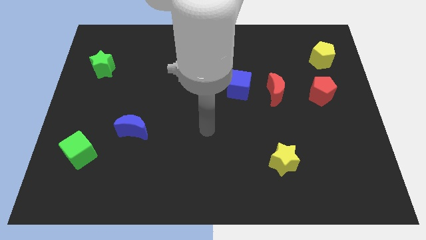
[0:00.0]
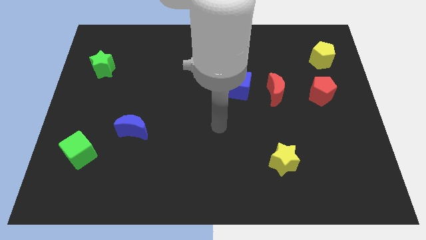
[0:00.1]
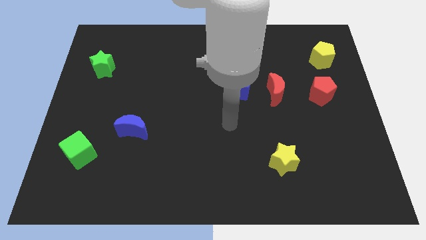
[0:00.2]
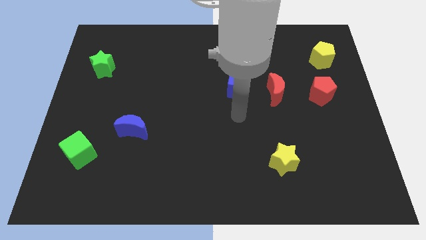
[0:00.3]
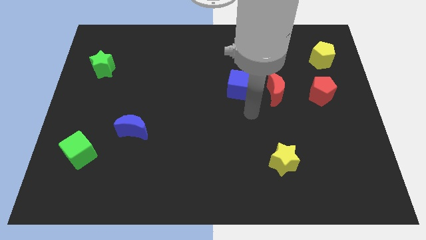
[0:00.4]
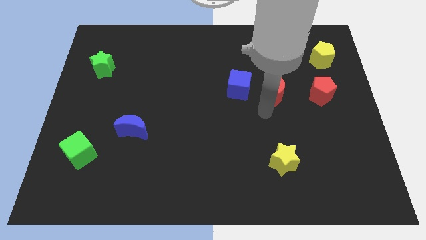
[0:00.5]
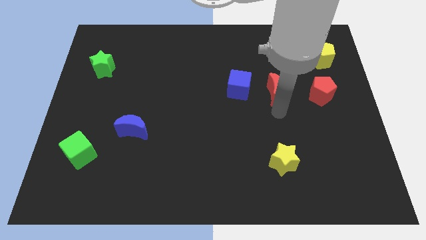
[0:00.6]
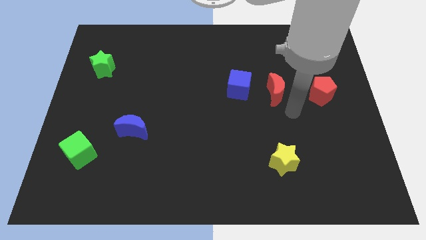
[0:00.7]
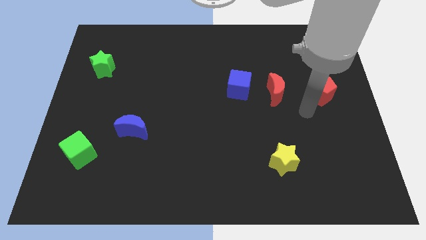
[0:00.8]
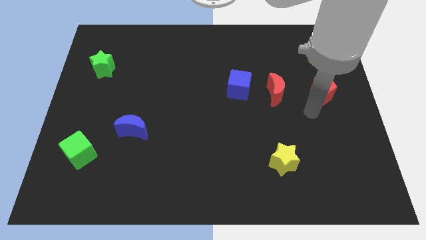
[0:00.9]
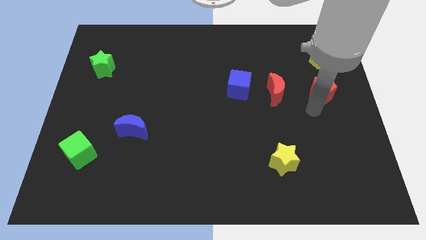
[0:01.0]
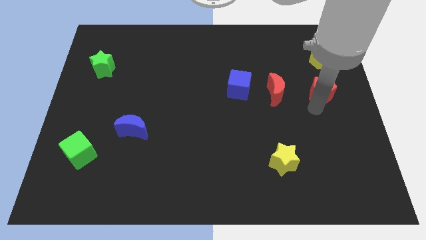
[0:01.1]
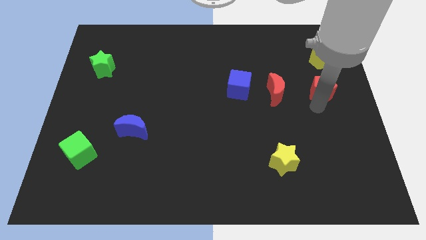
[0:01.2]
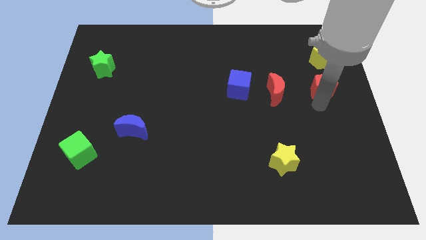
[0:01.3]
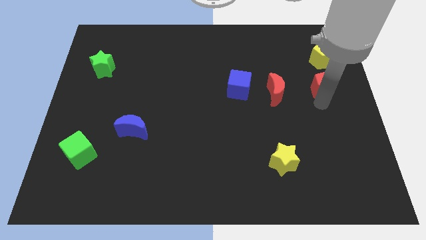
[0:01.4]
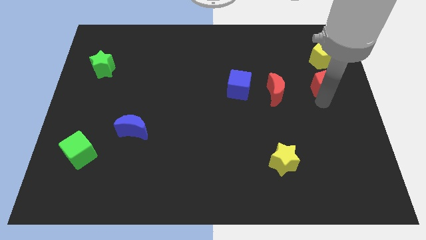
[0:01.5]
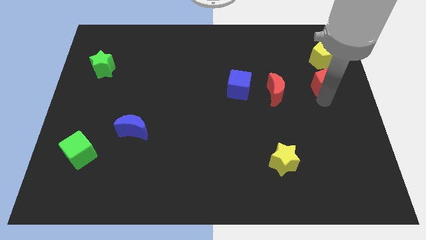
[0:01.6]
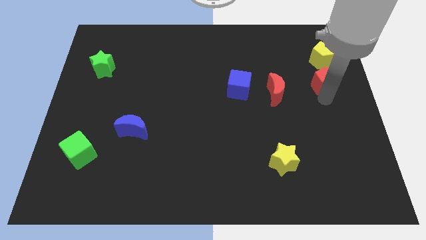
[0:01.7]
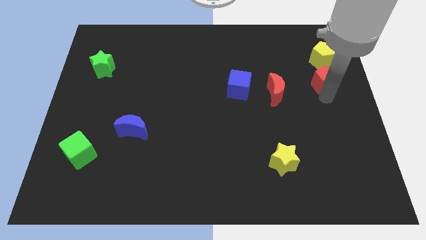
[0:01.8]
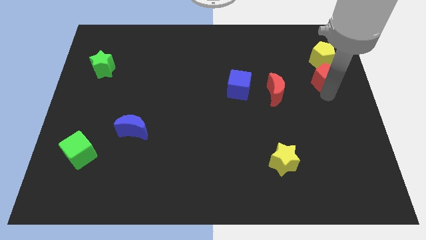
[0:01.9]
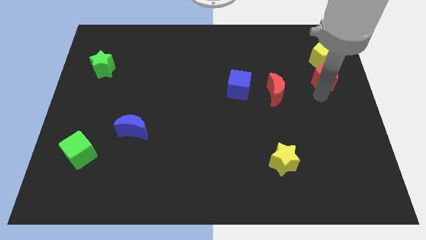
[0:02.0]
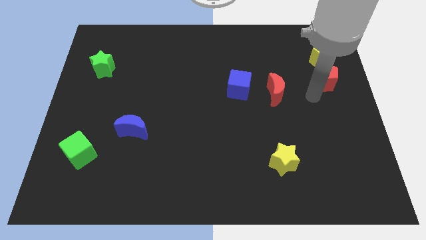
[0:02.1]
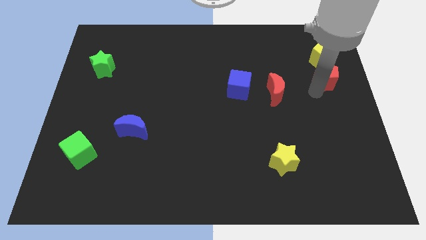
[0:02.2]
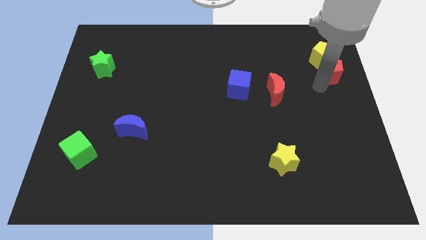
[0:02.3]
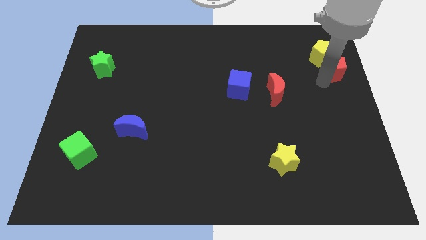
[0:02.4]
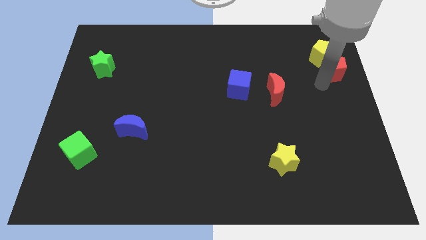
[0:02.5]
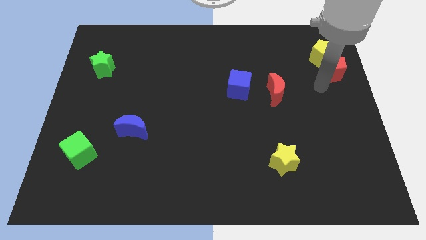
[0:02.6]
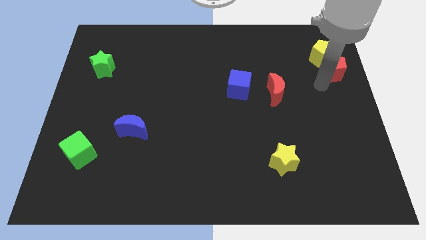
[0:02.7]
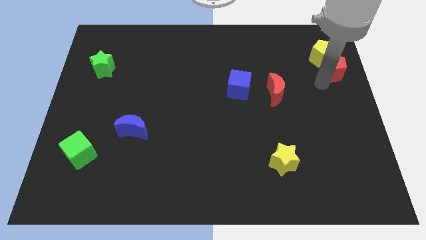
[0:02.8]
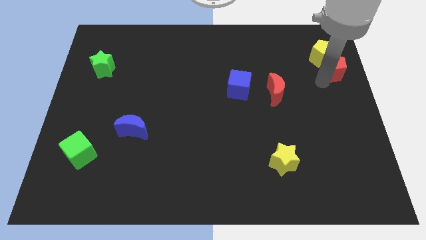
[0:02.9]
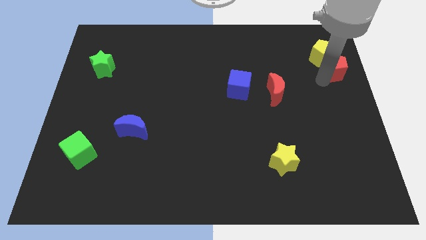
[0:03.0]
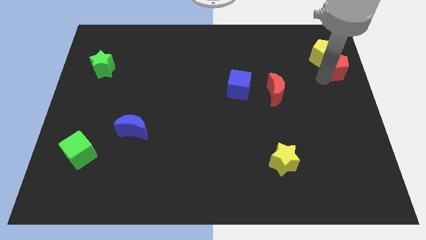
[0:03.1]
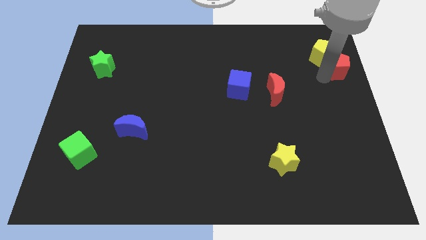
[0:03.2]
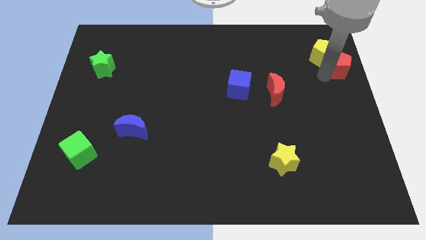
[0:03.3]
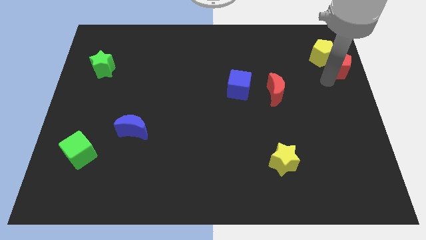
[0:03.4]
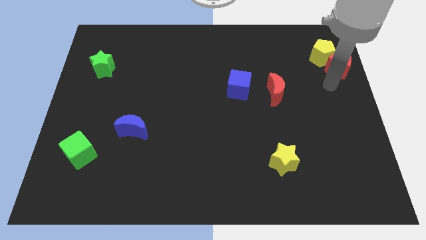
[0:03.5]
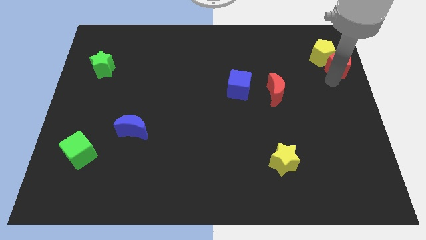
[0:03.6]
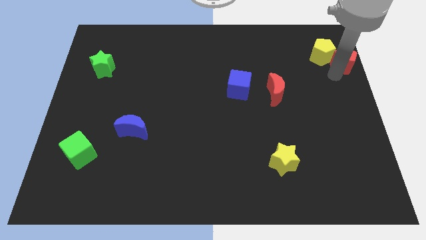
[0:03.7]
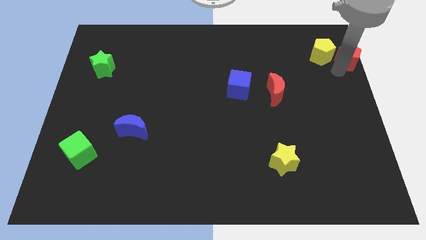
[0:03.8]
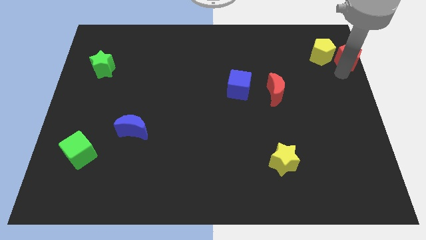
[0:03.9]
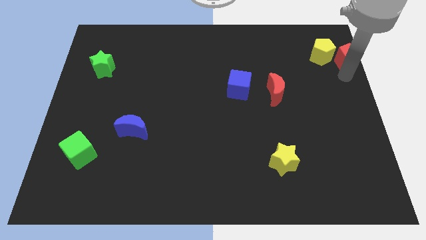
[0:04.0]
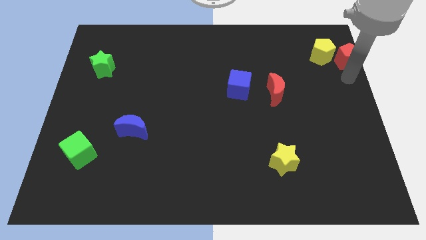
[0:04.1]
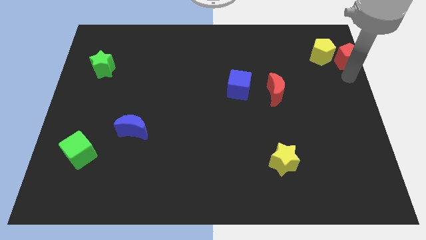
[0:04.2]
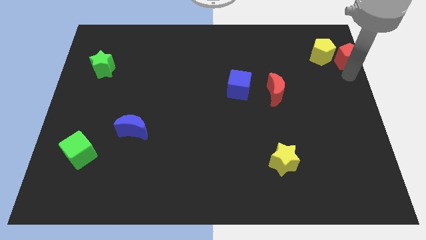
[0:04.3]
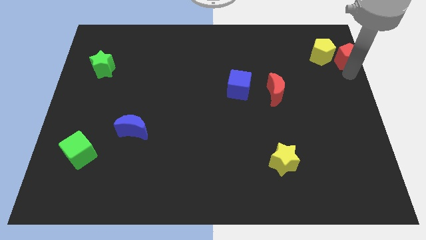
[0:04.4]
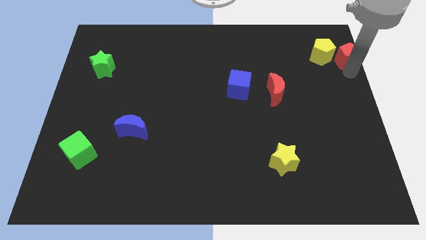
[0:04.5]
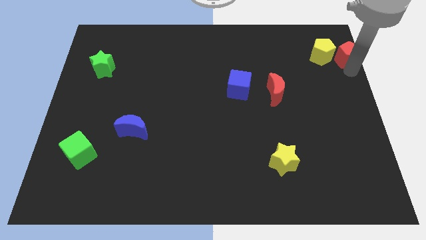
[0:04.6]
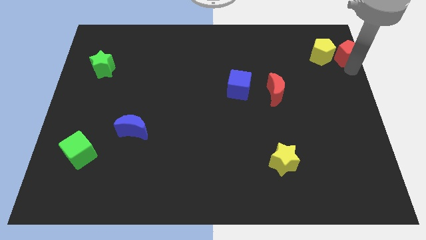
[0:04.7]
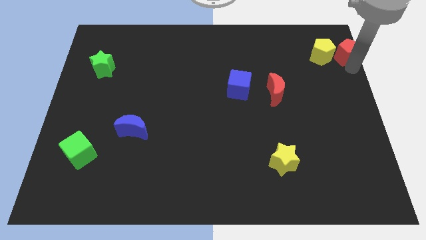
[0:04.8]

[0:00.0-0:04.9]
slide the red pentagon to the top right corner

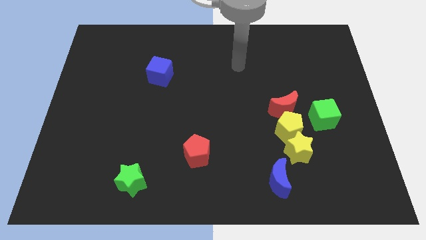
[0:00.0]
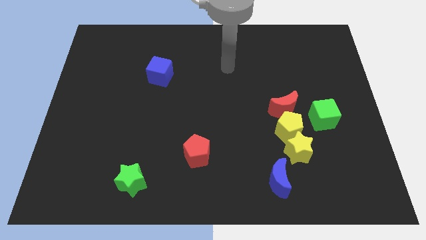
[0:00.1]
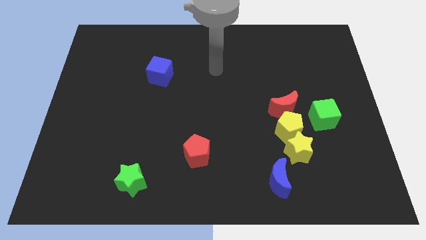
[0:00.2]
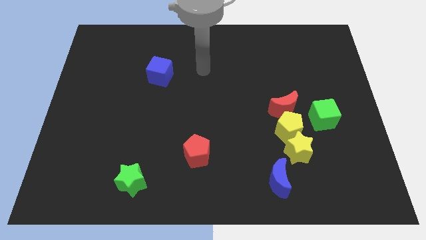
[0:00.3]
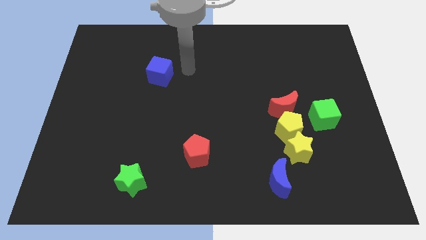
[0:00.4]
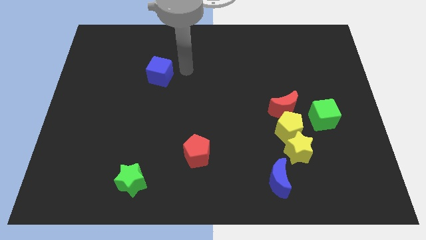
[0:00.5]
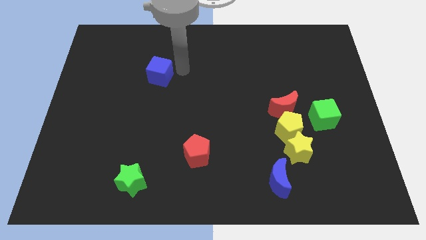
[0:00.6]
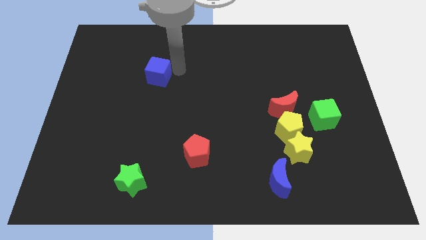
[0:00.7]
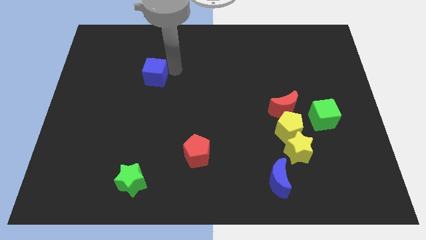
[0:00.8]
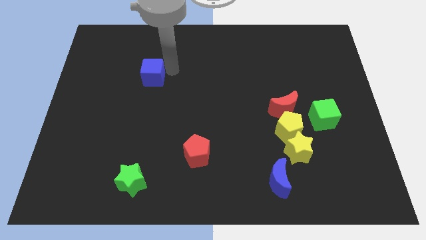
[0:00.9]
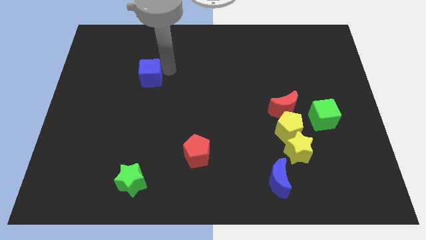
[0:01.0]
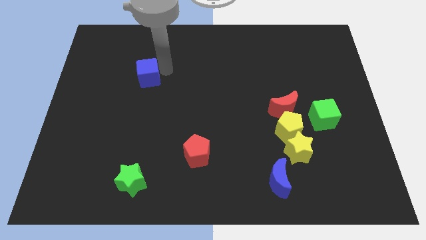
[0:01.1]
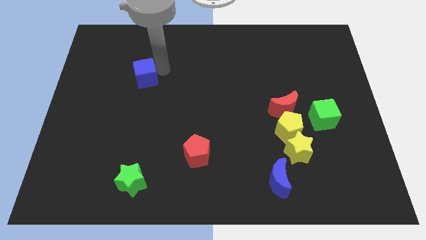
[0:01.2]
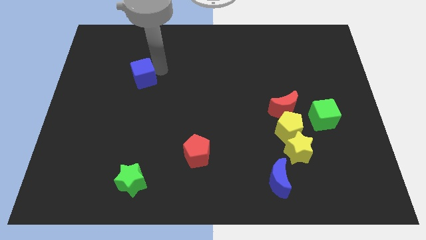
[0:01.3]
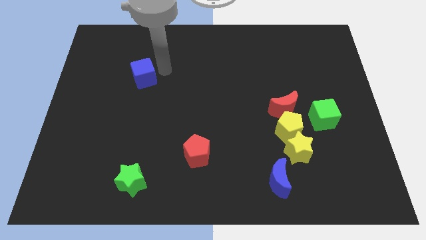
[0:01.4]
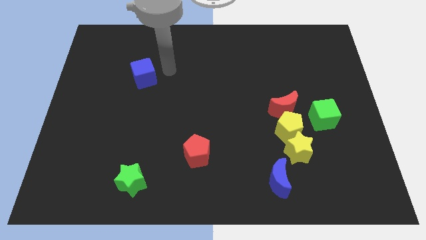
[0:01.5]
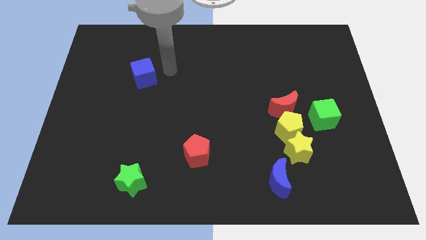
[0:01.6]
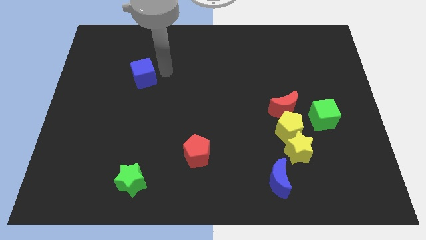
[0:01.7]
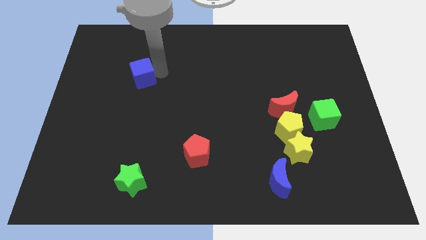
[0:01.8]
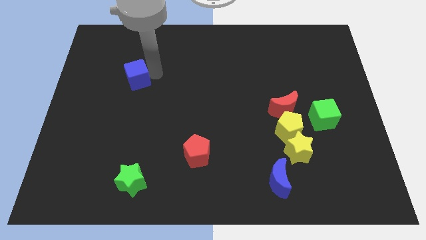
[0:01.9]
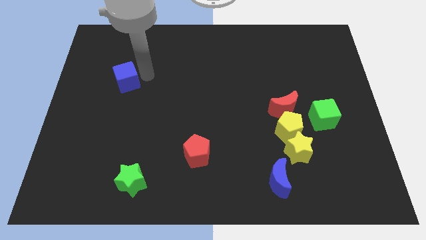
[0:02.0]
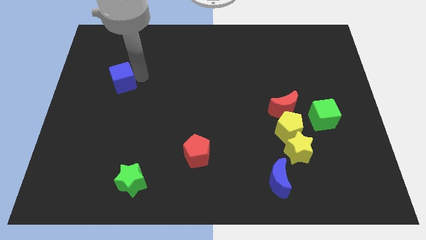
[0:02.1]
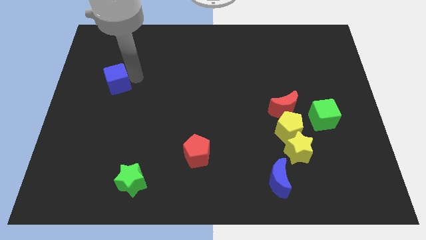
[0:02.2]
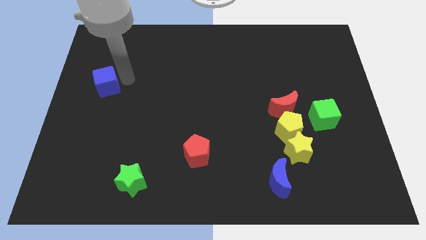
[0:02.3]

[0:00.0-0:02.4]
slide the blue cube to the left side
